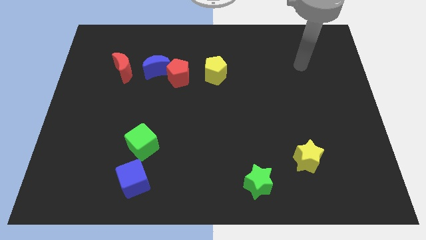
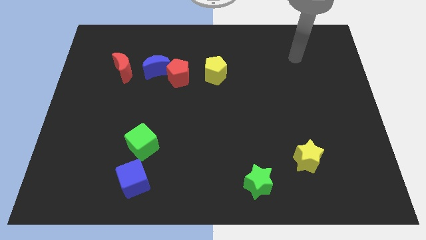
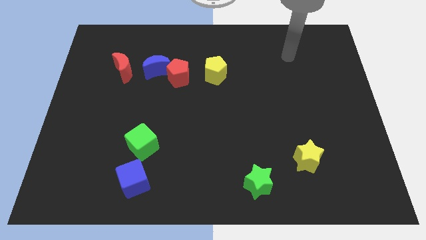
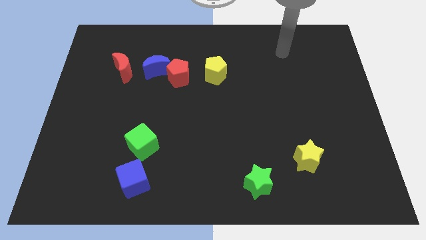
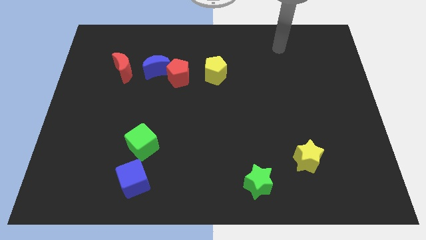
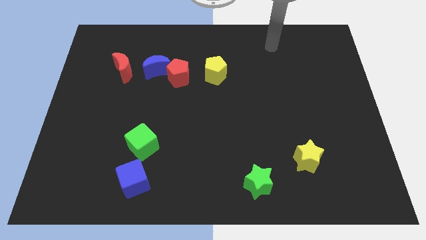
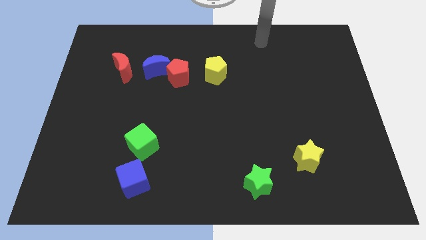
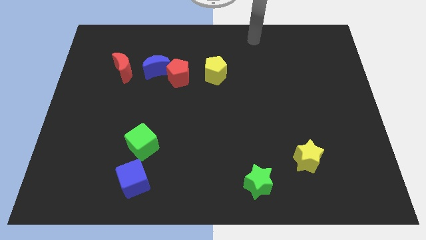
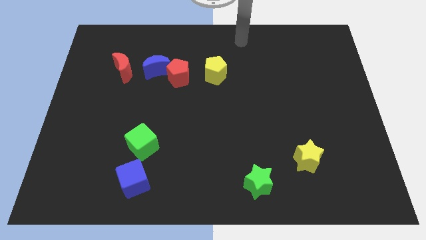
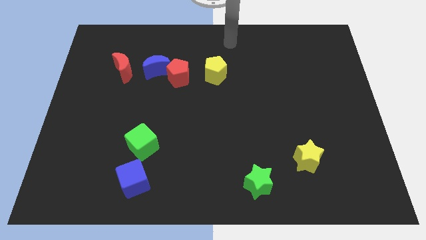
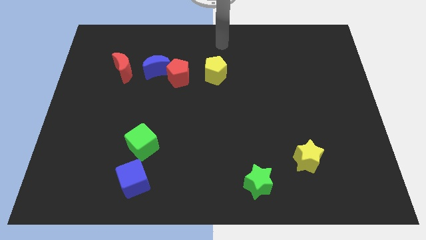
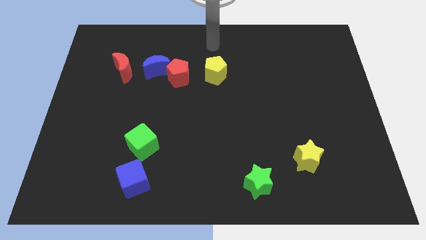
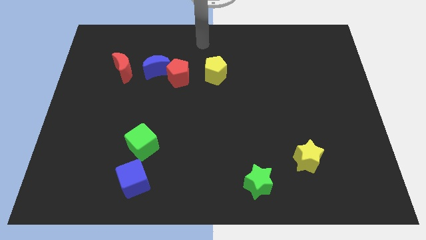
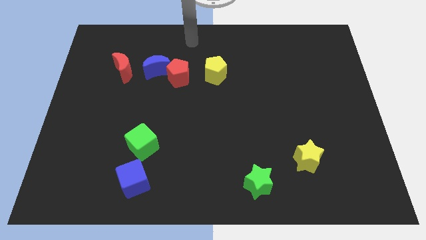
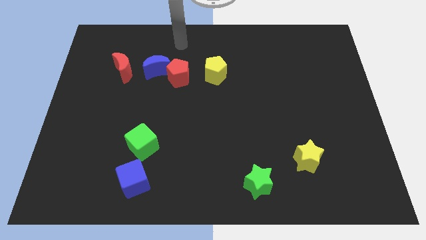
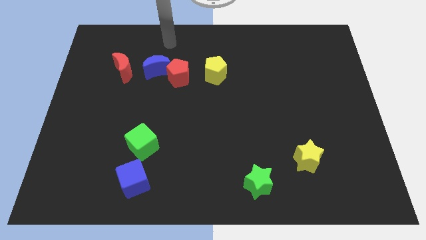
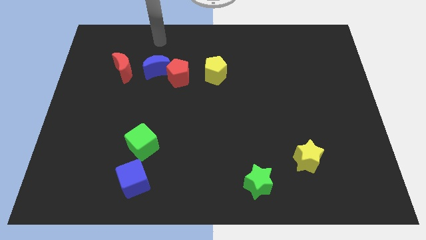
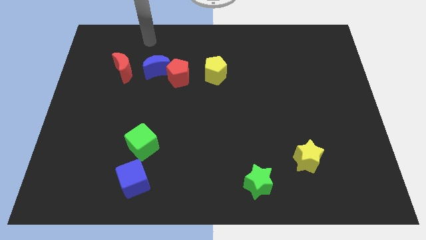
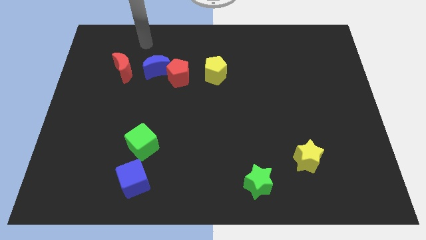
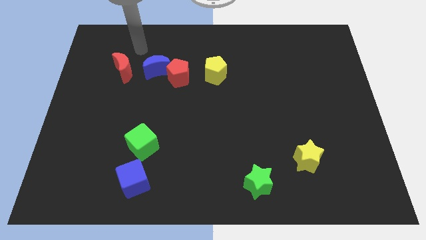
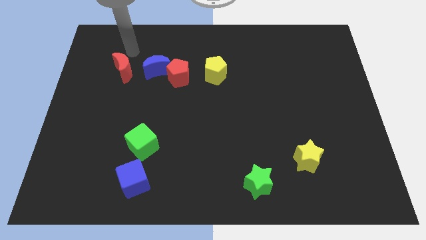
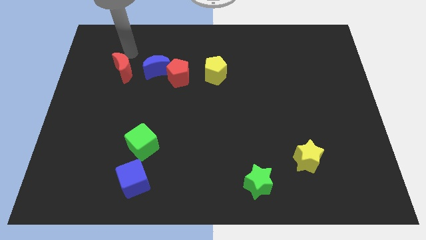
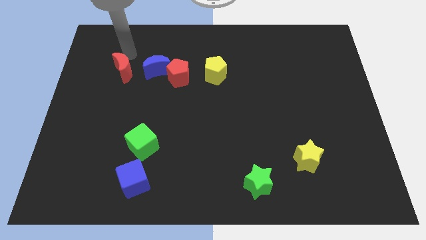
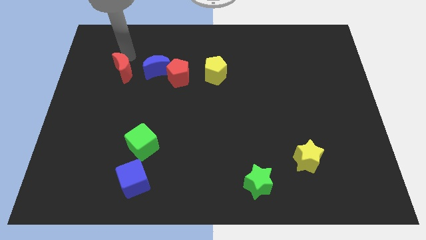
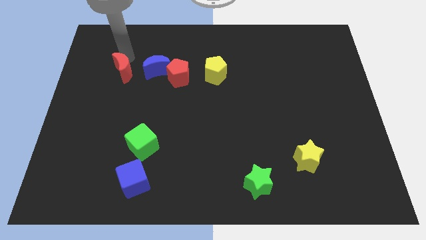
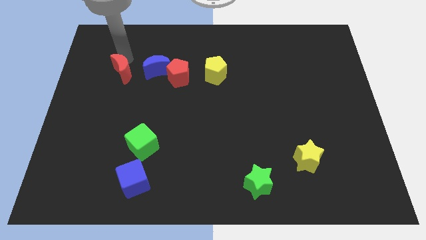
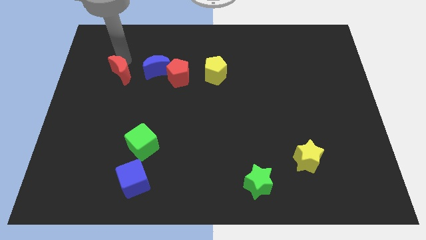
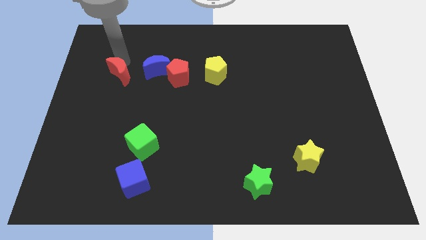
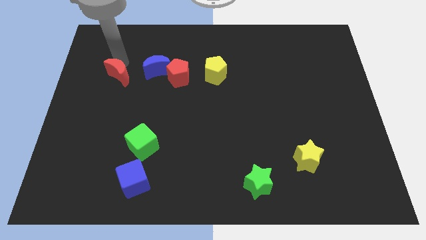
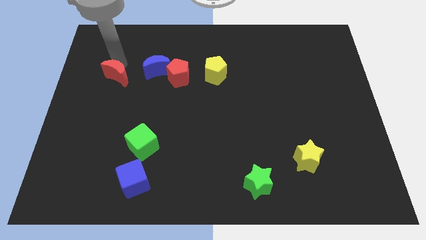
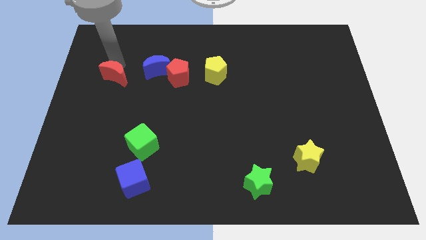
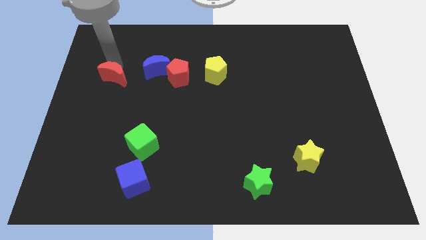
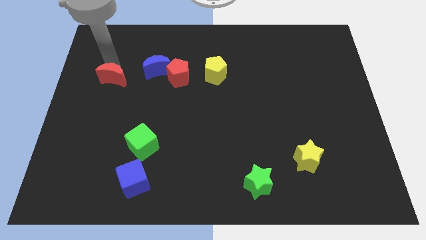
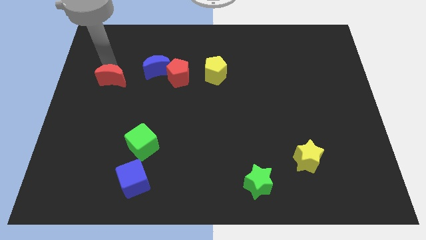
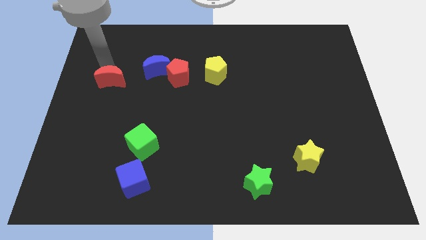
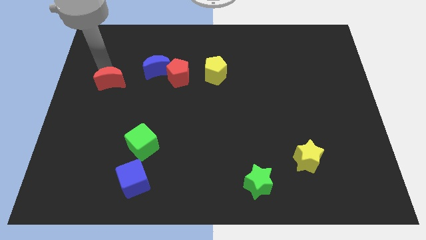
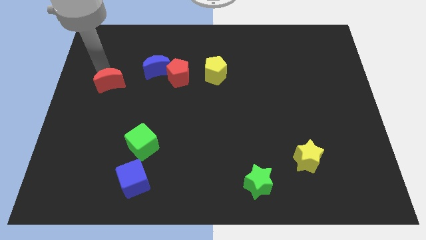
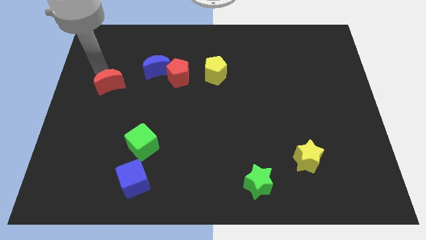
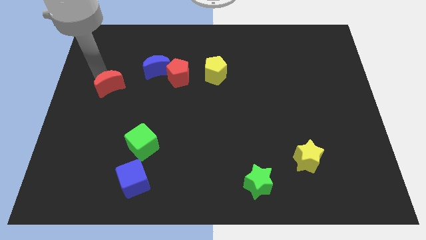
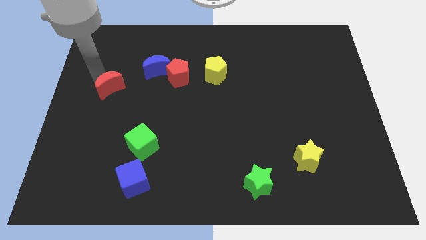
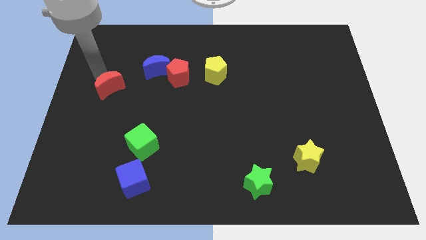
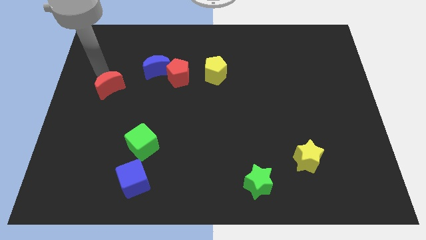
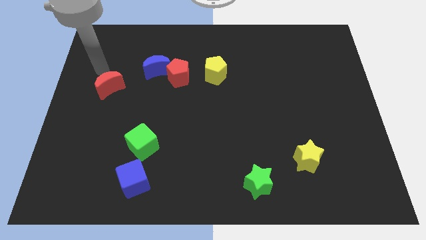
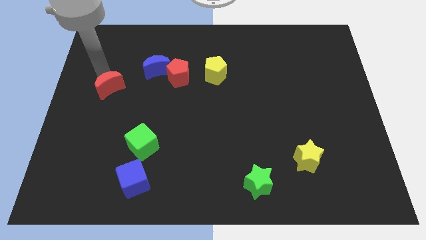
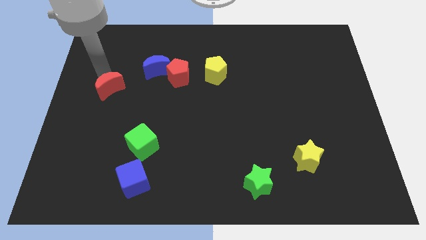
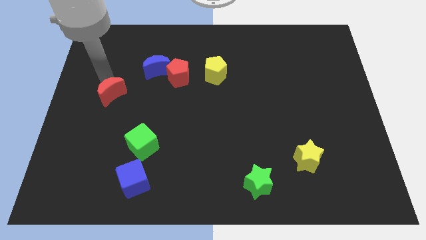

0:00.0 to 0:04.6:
slightly move the red moon down

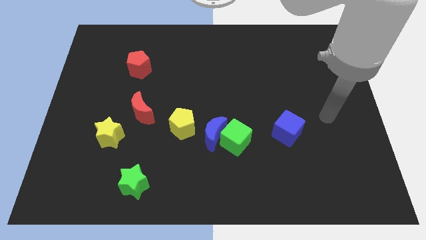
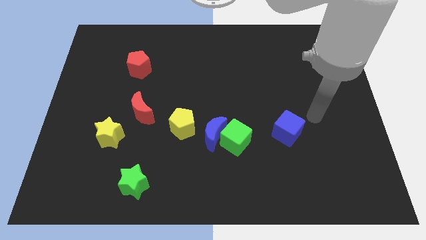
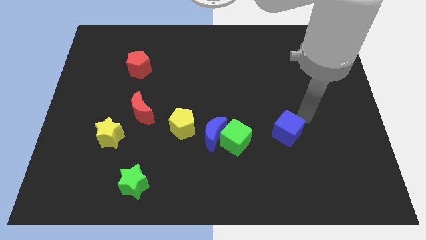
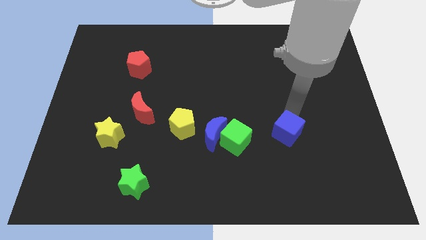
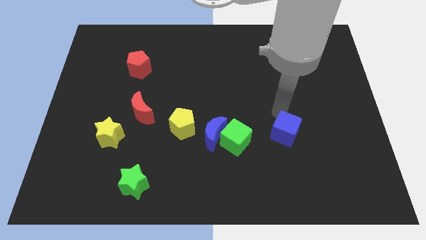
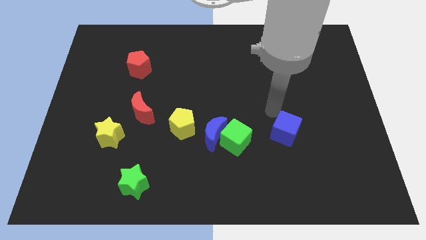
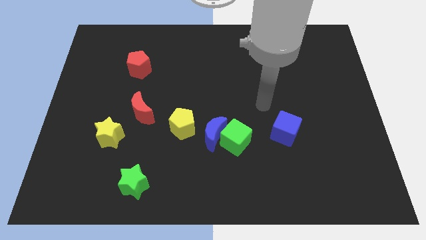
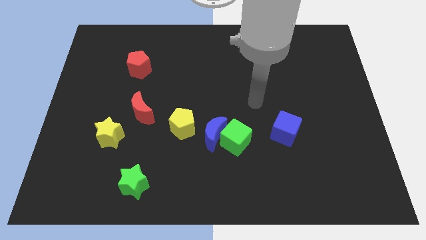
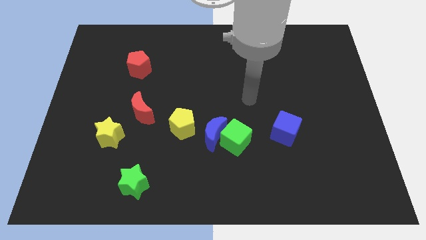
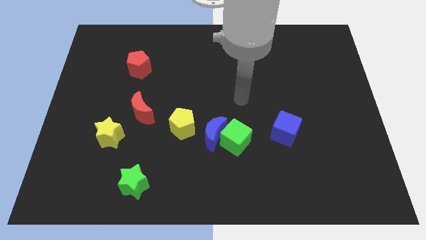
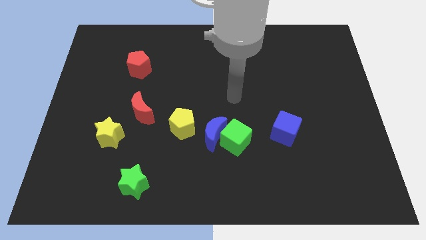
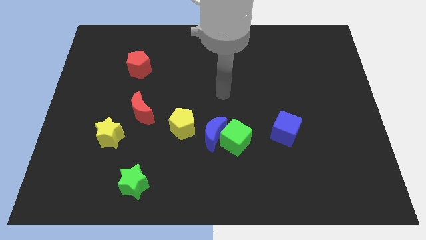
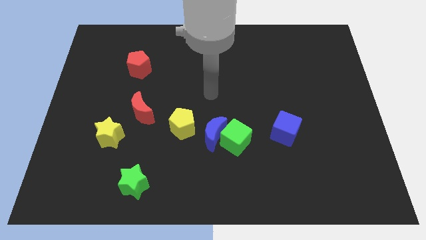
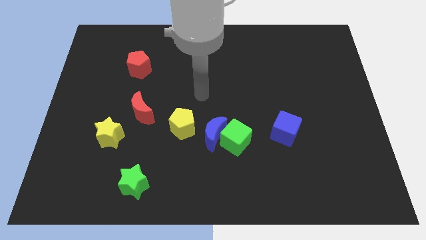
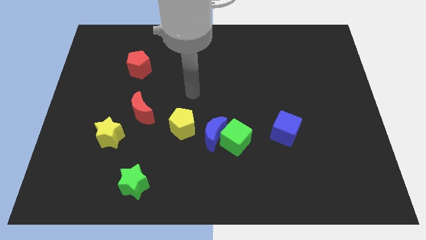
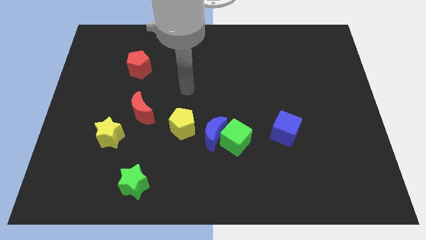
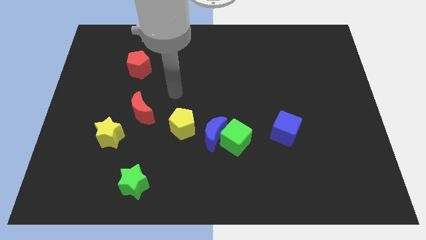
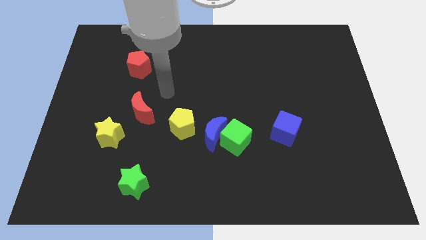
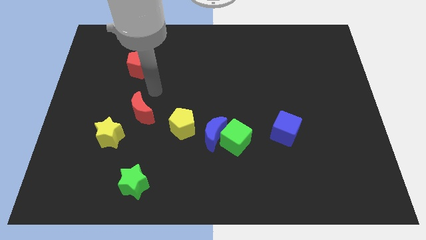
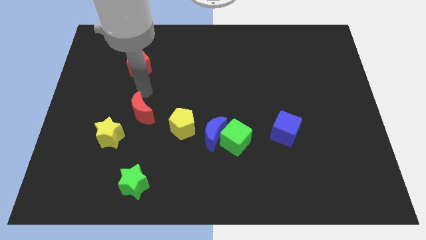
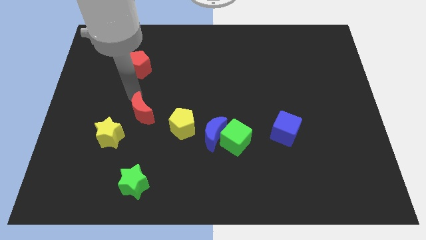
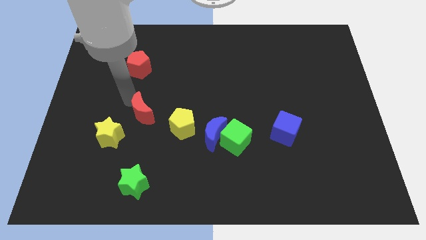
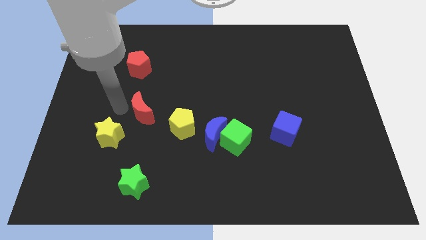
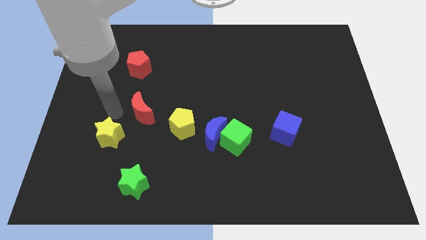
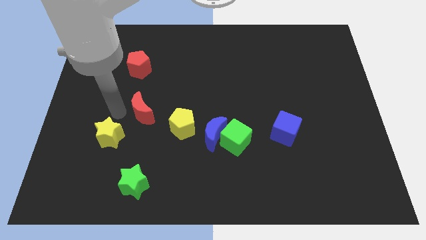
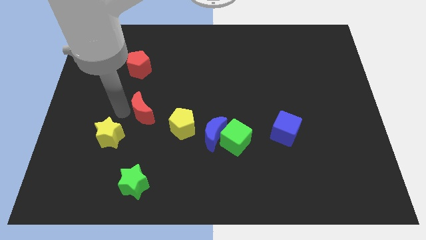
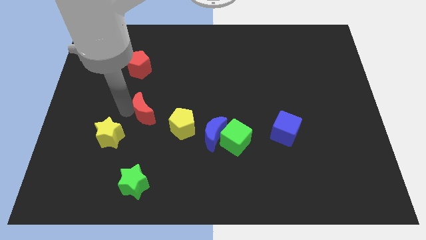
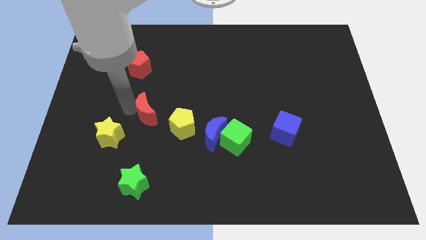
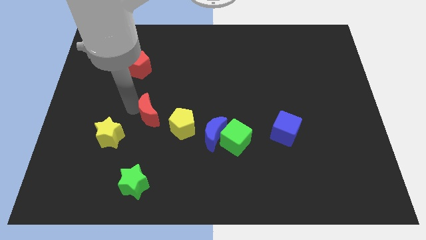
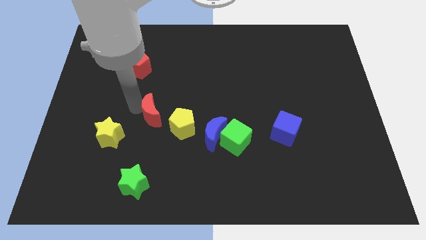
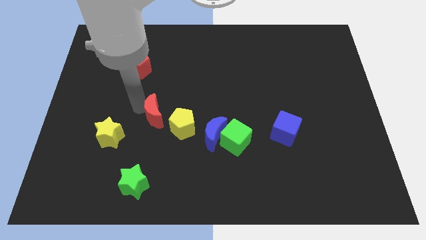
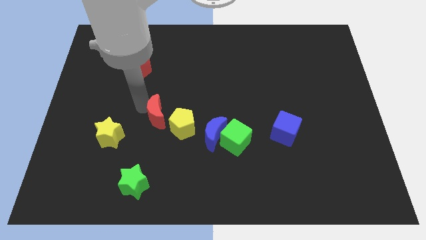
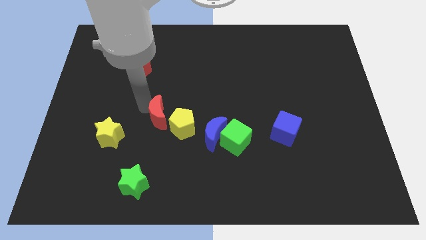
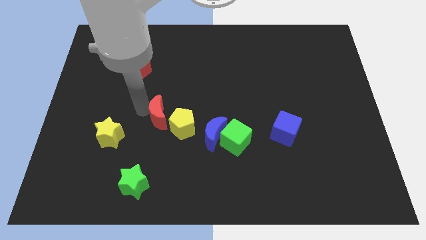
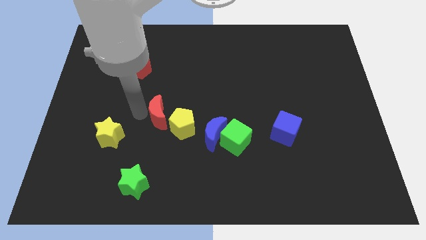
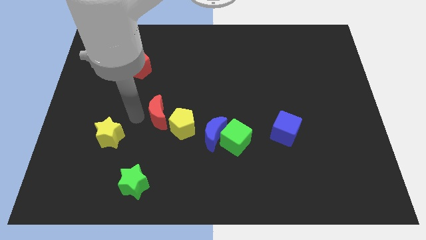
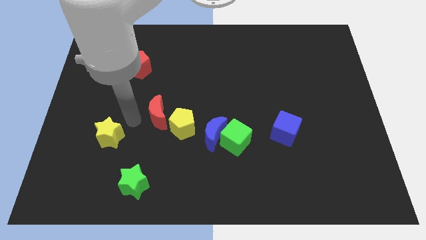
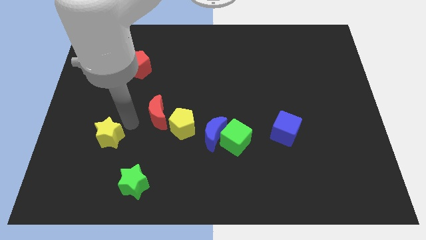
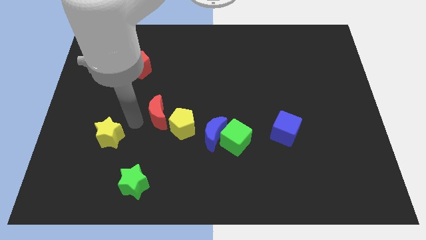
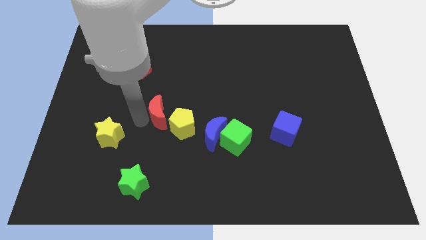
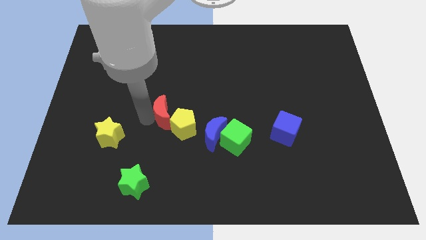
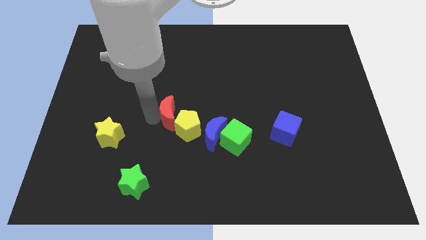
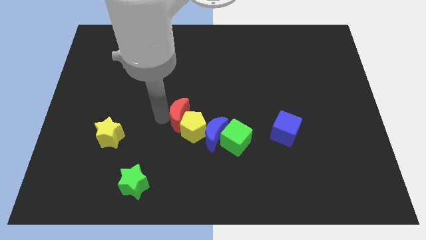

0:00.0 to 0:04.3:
slightly move the red moon to the right
